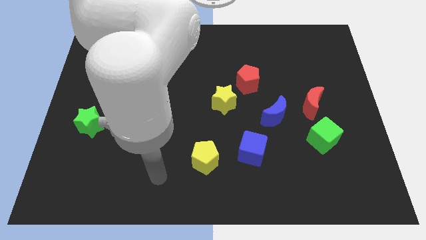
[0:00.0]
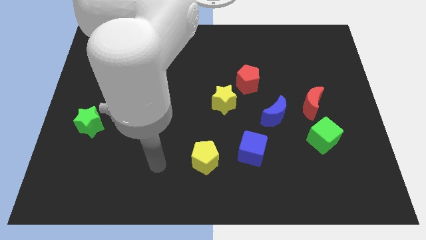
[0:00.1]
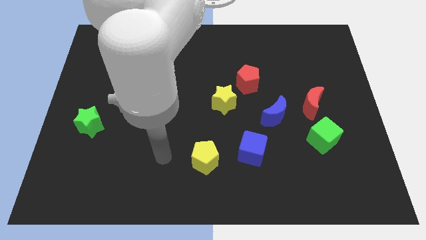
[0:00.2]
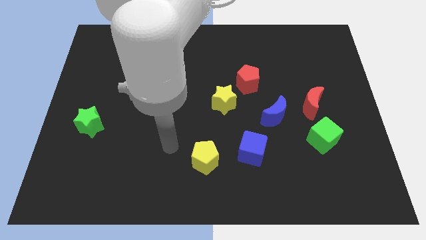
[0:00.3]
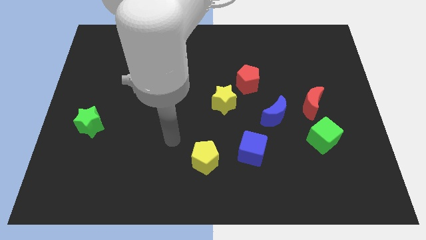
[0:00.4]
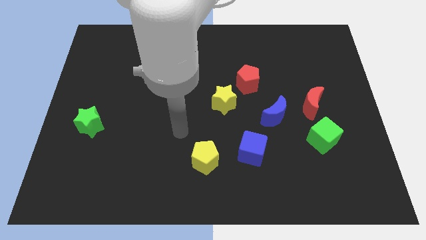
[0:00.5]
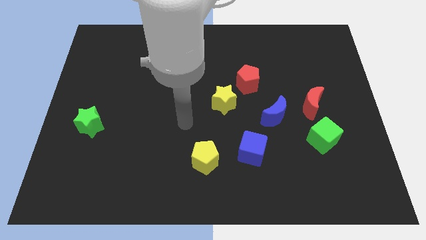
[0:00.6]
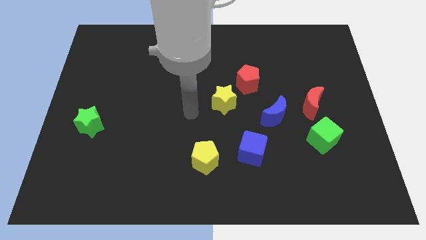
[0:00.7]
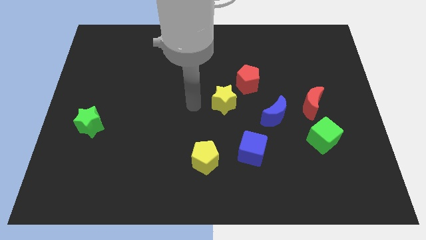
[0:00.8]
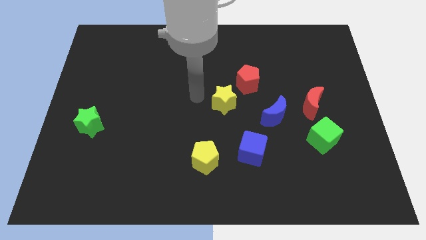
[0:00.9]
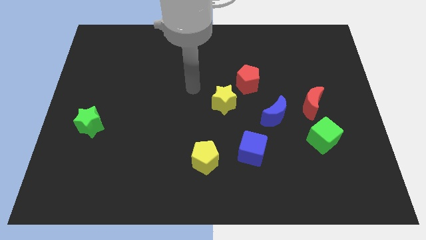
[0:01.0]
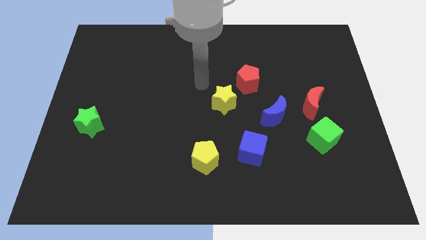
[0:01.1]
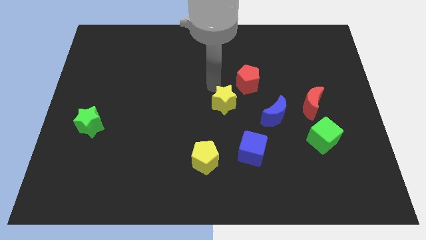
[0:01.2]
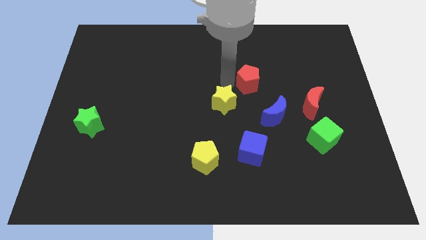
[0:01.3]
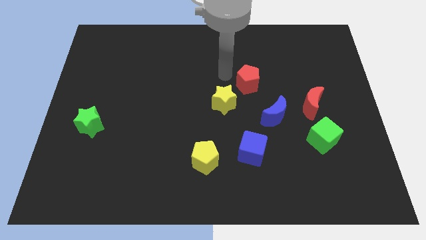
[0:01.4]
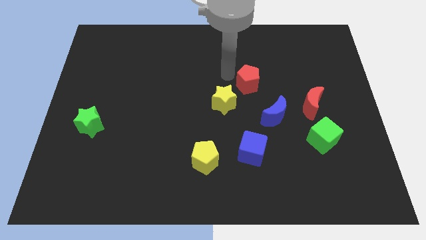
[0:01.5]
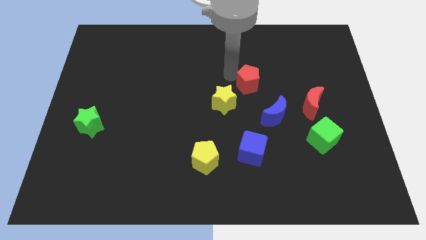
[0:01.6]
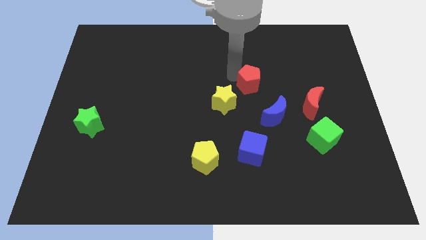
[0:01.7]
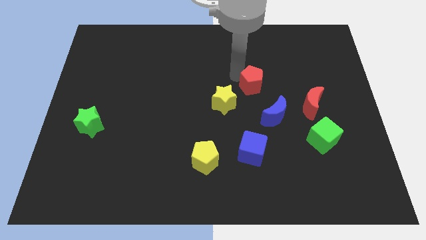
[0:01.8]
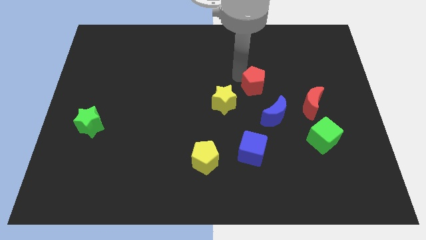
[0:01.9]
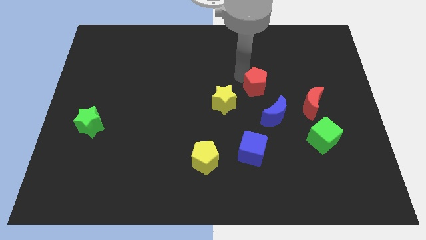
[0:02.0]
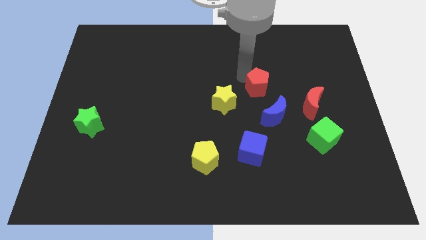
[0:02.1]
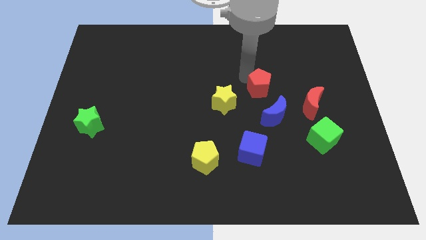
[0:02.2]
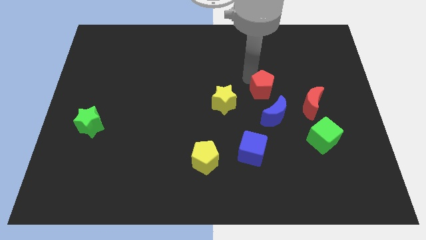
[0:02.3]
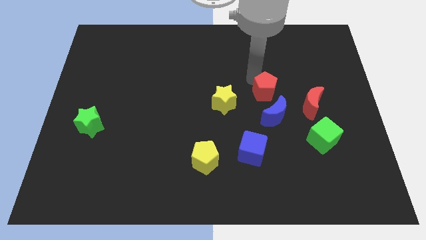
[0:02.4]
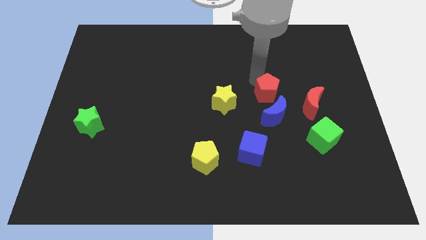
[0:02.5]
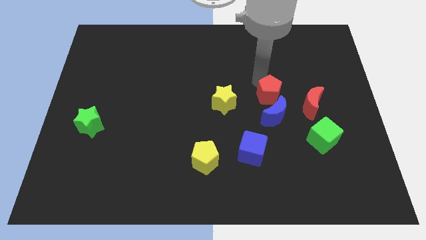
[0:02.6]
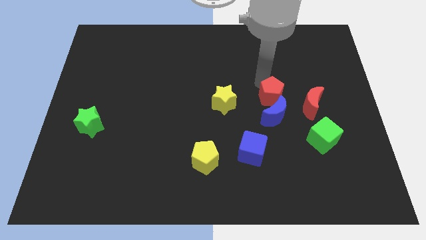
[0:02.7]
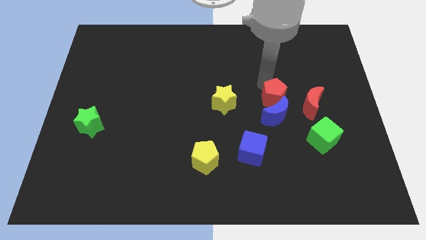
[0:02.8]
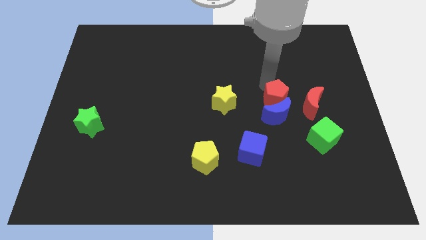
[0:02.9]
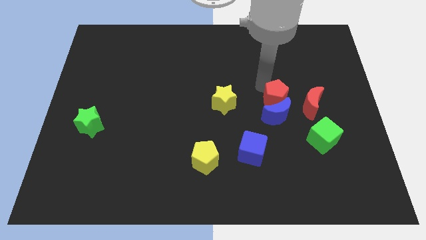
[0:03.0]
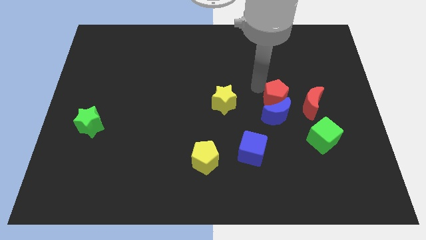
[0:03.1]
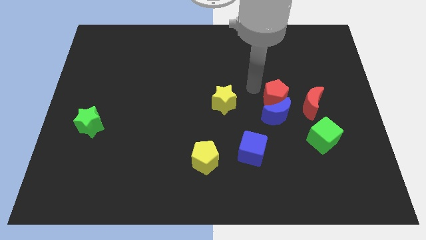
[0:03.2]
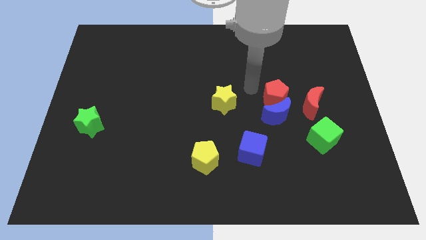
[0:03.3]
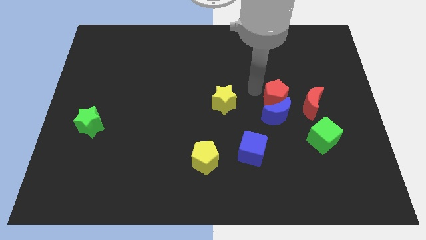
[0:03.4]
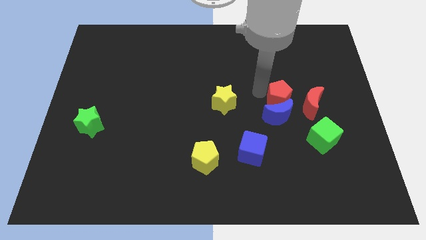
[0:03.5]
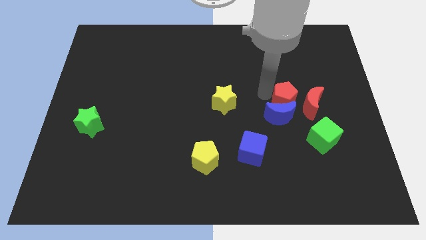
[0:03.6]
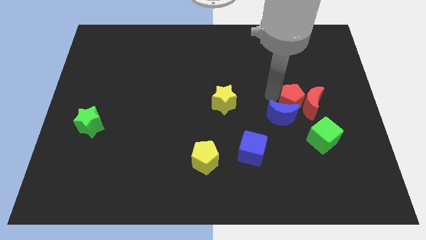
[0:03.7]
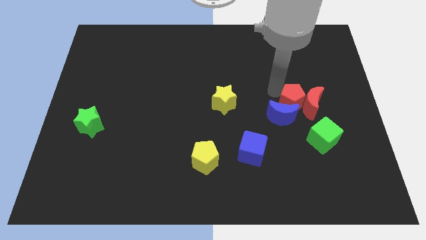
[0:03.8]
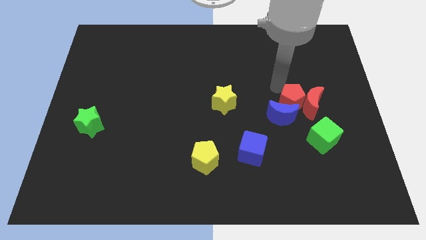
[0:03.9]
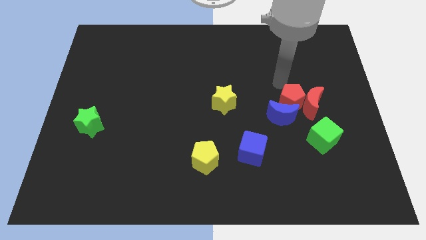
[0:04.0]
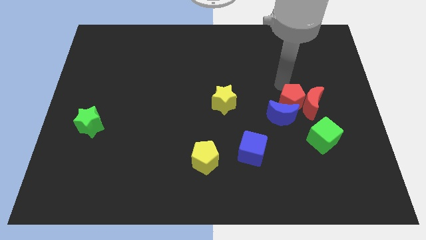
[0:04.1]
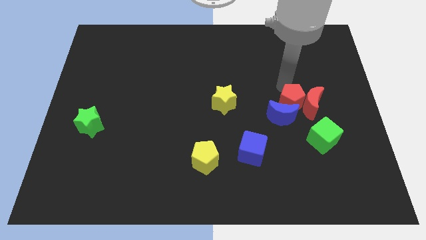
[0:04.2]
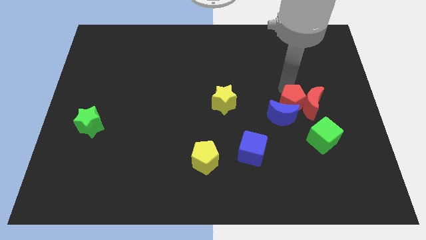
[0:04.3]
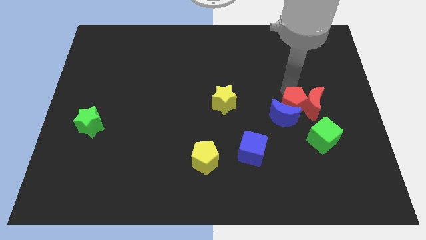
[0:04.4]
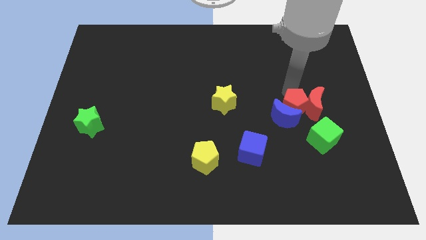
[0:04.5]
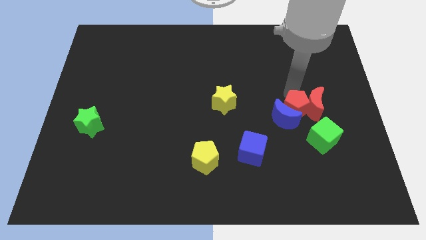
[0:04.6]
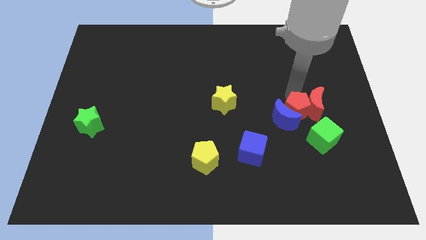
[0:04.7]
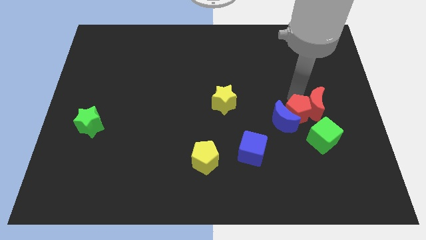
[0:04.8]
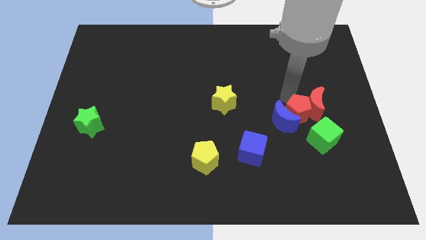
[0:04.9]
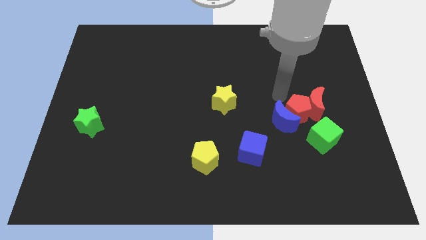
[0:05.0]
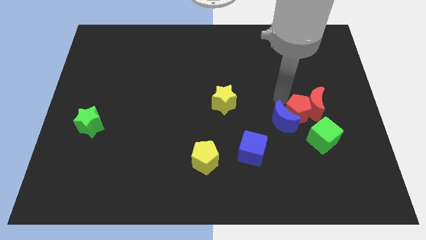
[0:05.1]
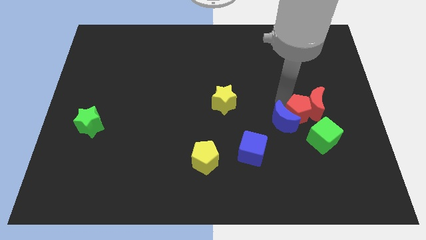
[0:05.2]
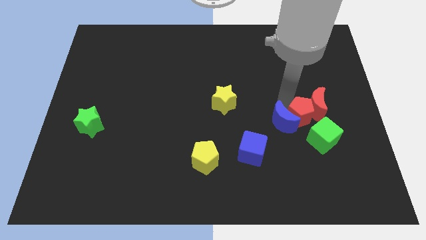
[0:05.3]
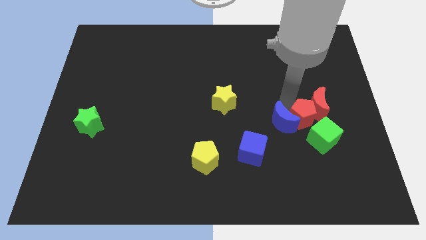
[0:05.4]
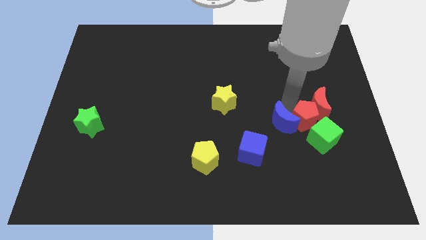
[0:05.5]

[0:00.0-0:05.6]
slide the red pentagon next to the green cube

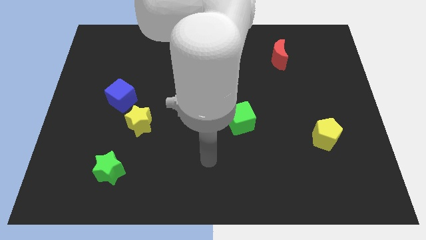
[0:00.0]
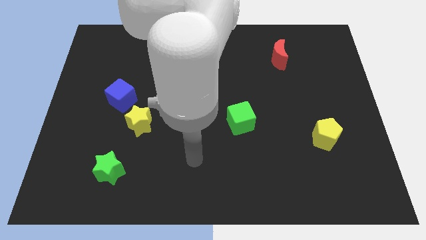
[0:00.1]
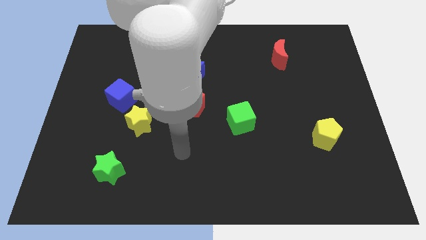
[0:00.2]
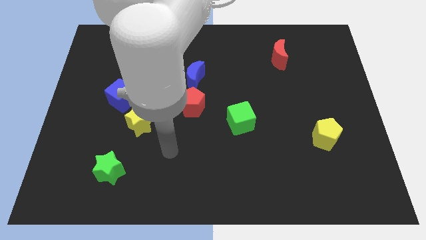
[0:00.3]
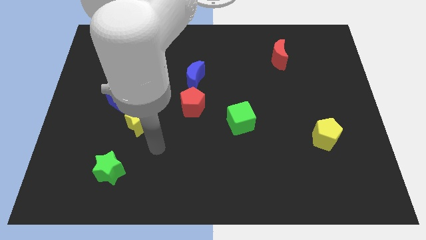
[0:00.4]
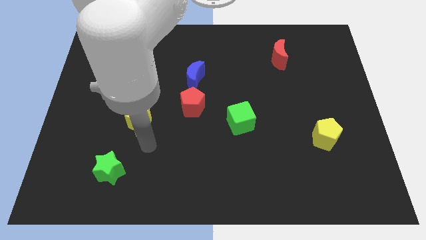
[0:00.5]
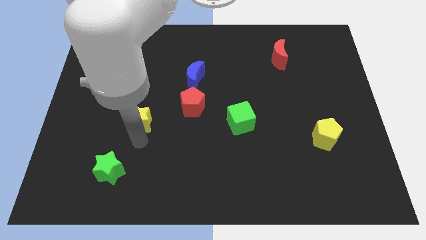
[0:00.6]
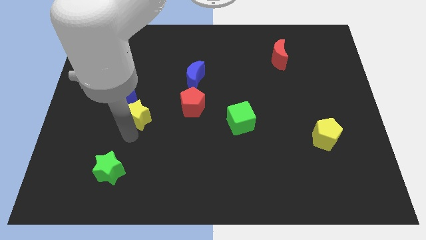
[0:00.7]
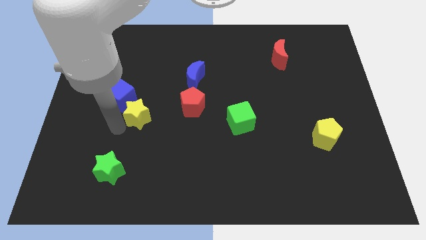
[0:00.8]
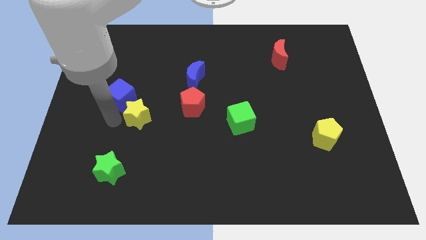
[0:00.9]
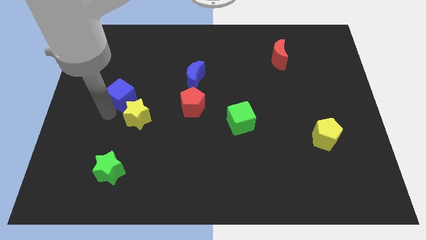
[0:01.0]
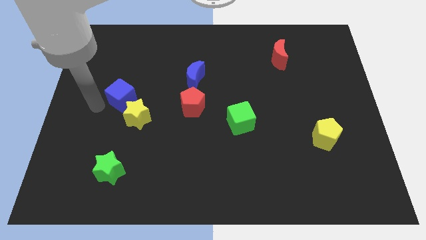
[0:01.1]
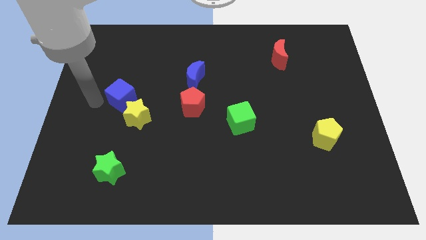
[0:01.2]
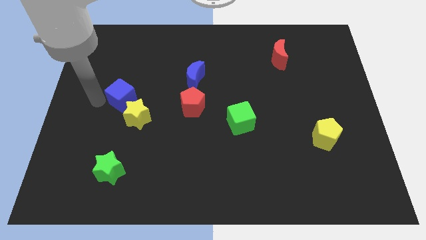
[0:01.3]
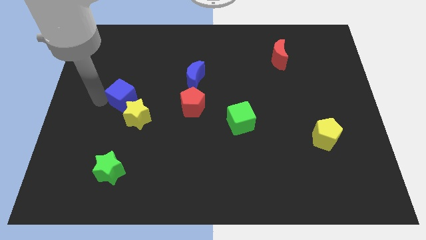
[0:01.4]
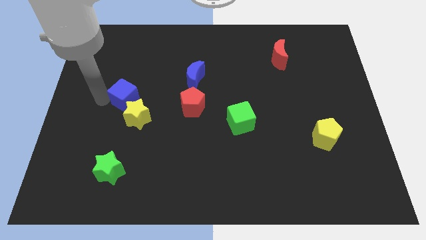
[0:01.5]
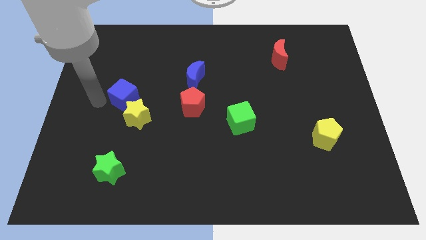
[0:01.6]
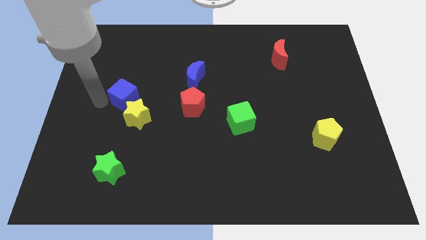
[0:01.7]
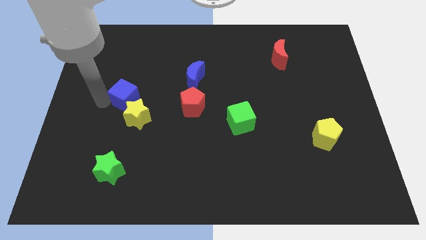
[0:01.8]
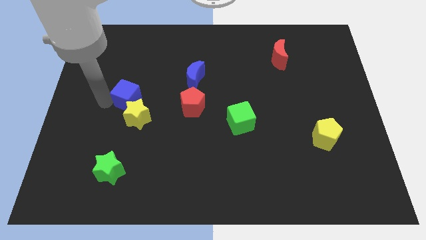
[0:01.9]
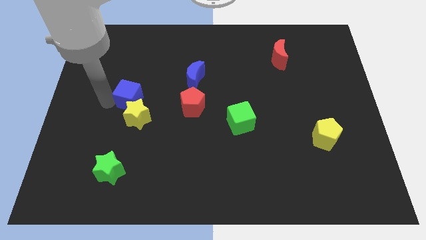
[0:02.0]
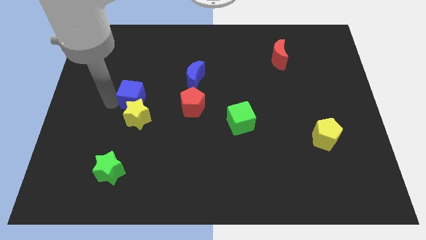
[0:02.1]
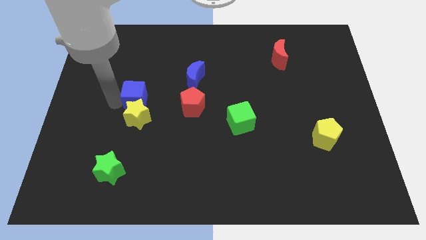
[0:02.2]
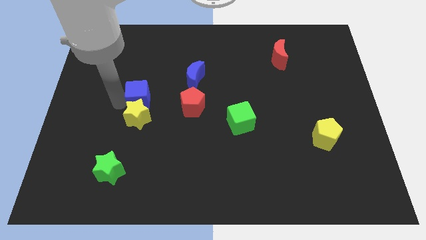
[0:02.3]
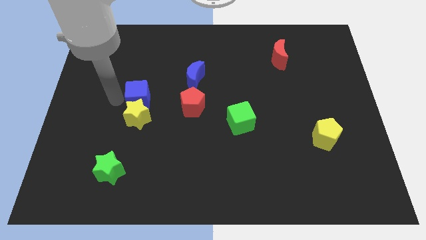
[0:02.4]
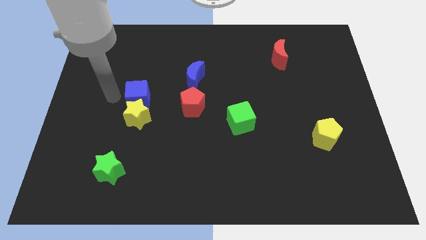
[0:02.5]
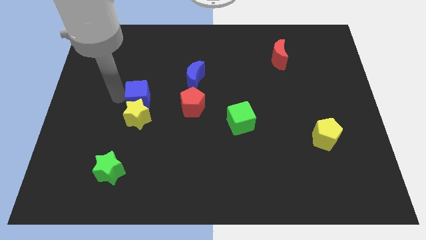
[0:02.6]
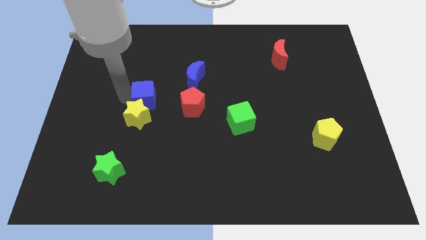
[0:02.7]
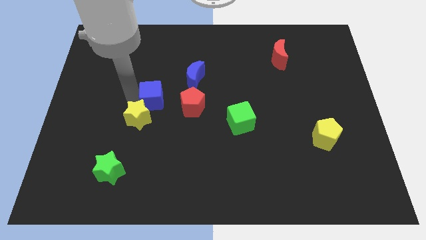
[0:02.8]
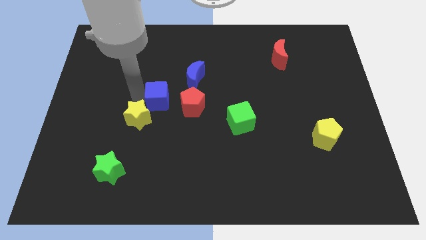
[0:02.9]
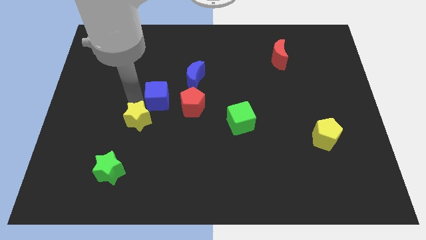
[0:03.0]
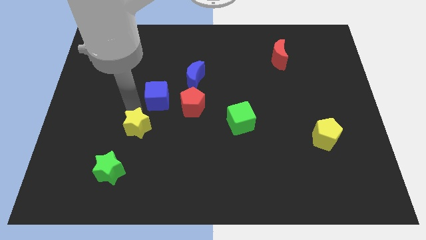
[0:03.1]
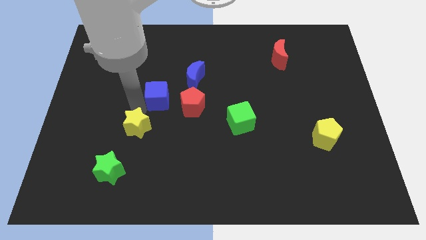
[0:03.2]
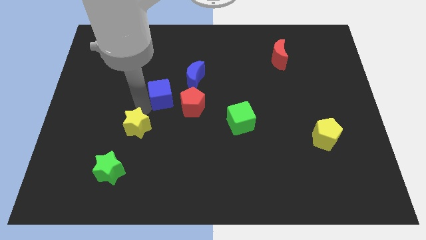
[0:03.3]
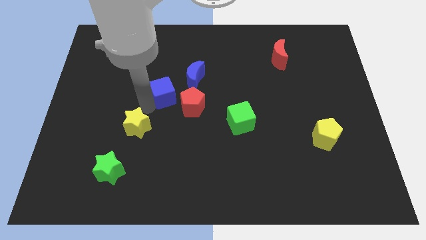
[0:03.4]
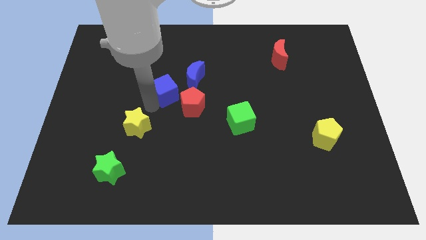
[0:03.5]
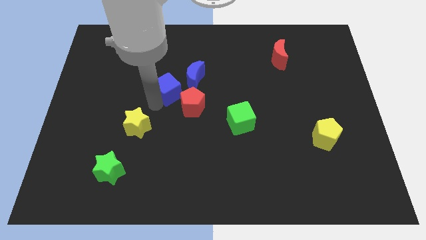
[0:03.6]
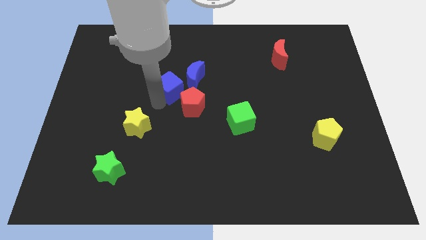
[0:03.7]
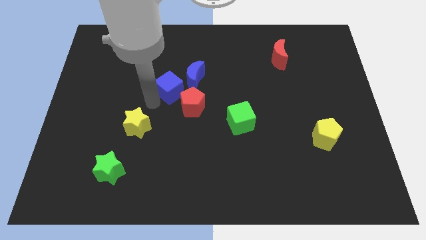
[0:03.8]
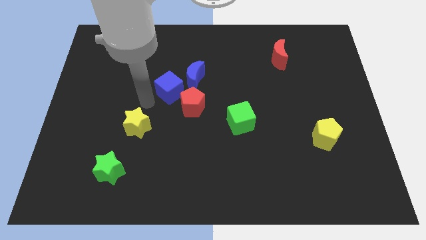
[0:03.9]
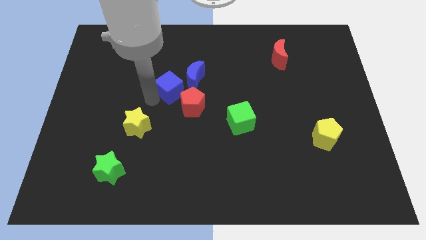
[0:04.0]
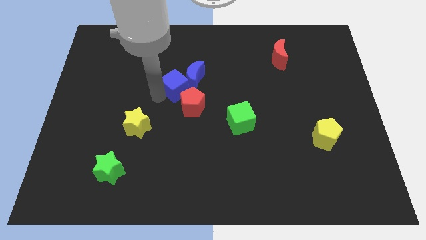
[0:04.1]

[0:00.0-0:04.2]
slide the blue cube to the blue moon
